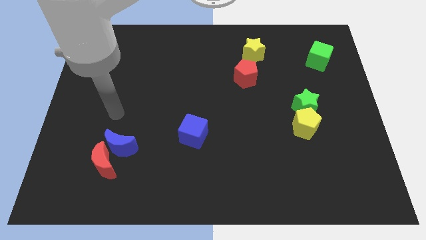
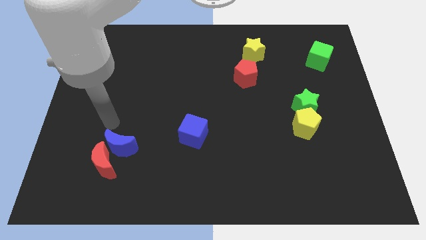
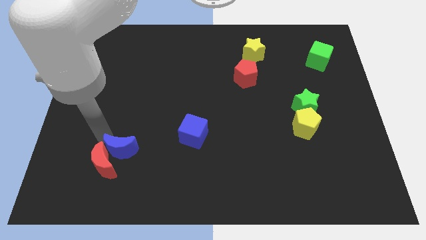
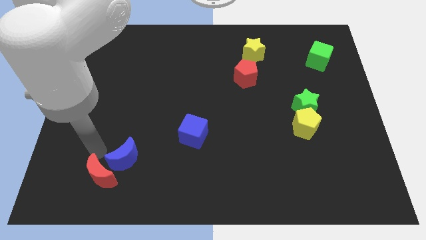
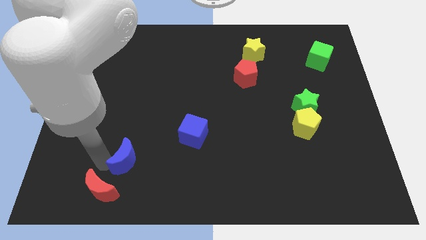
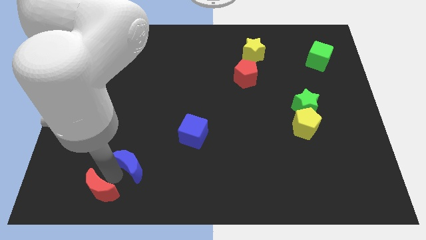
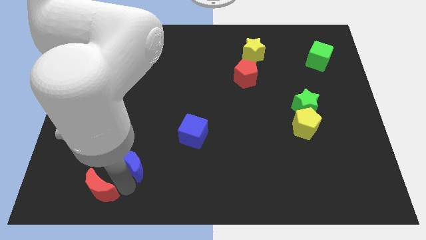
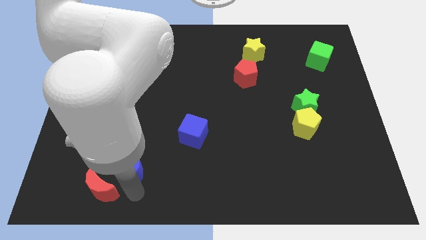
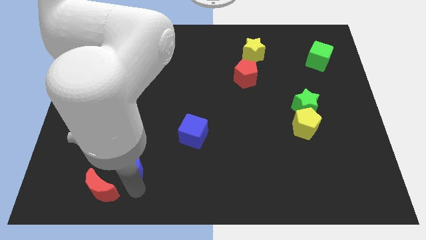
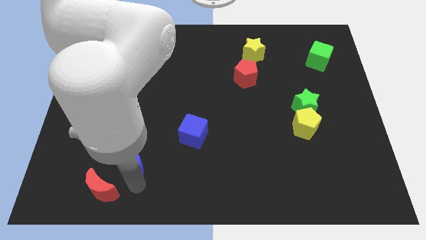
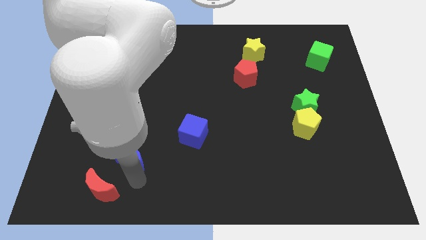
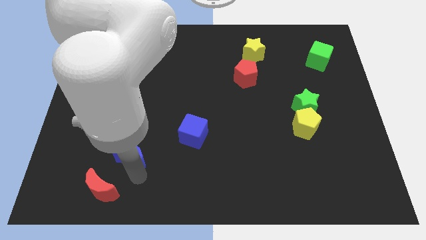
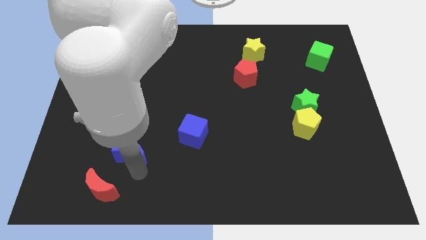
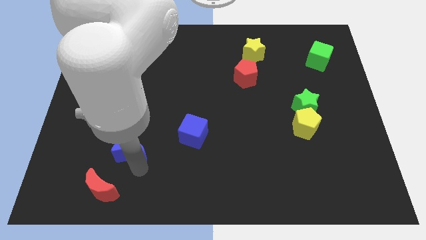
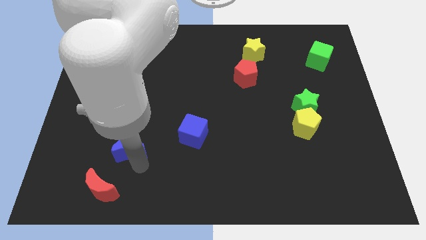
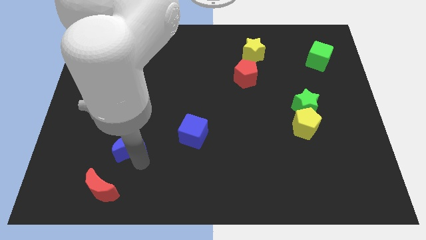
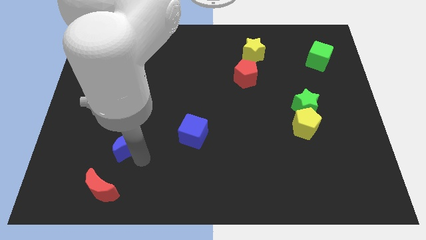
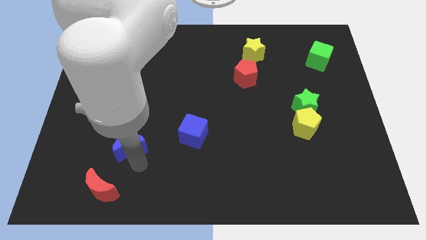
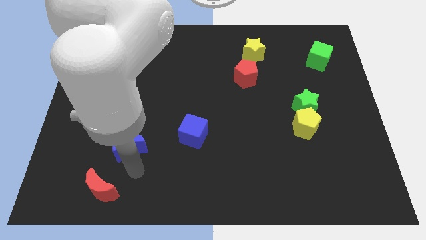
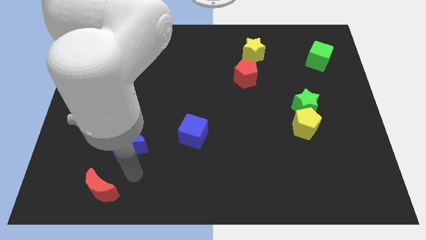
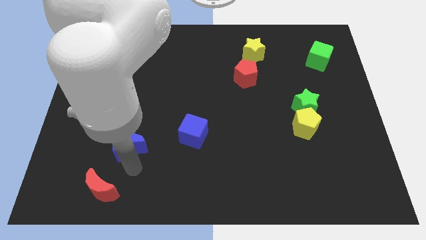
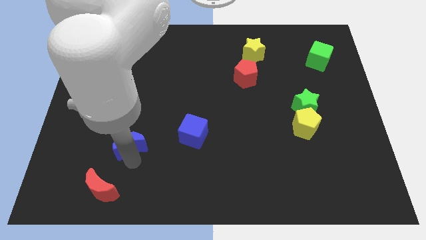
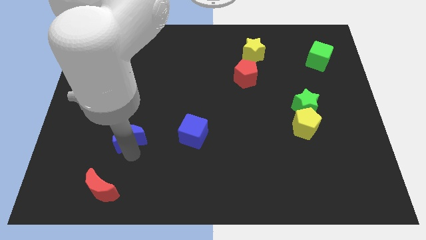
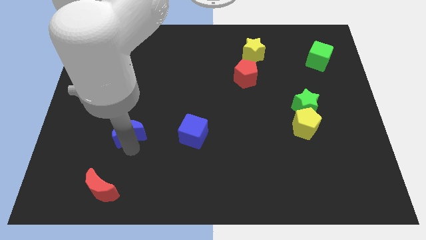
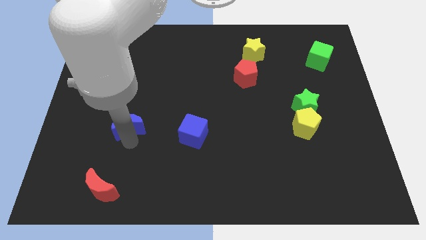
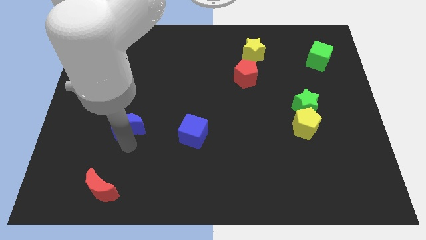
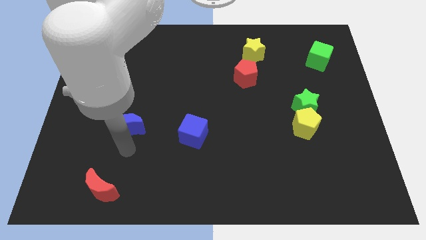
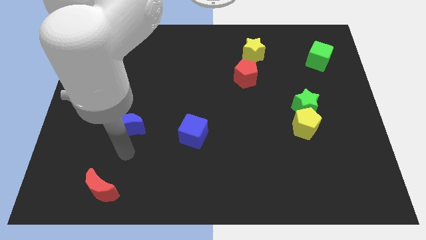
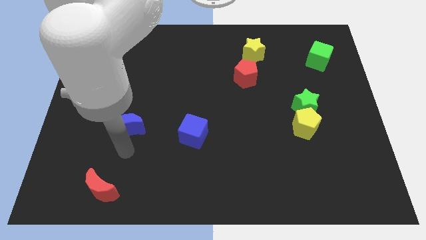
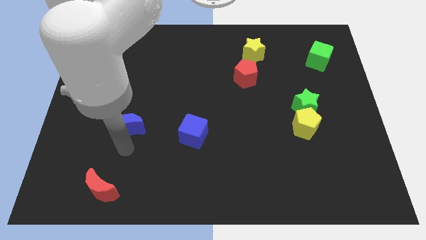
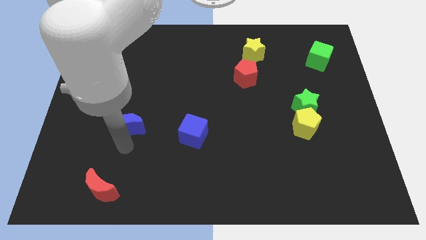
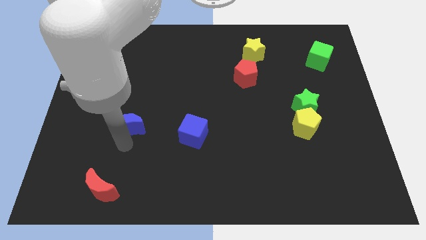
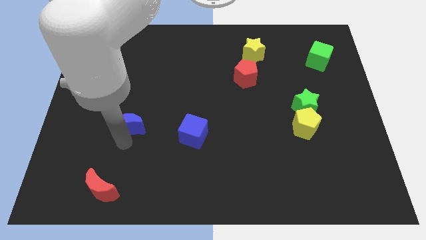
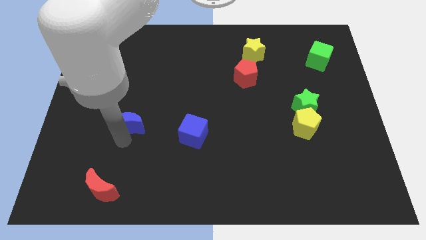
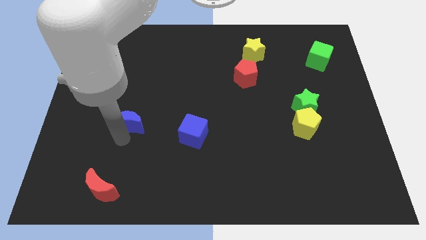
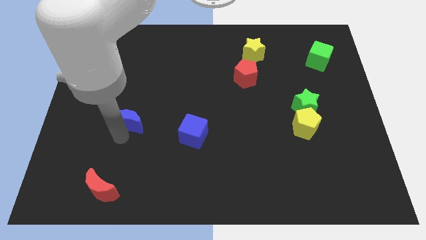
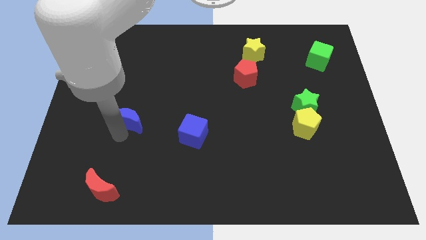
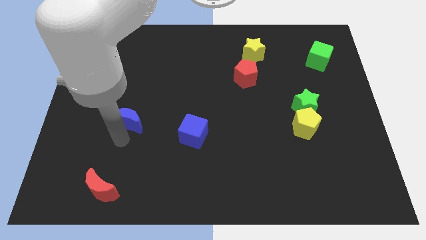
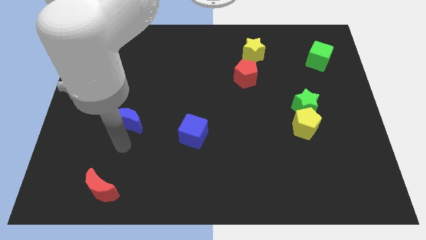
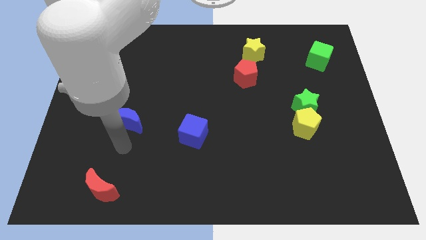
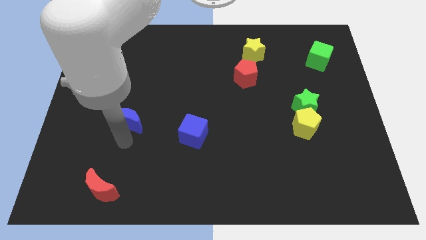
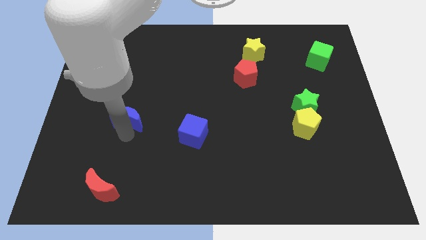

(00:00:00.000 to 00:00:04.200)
move the blue moon upwards a little

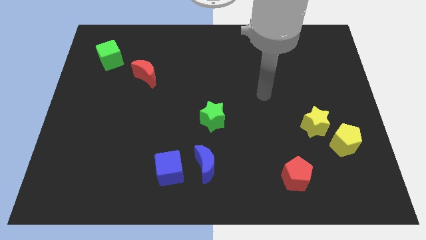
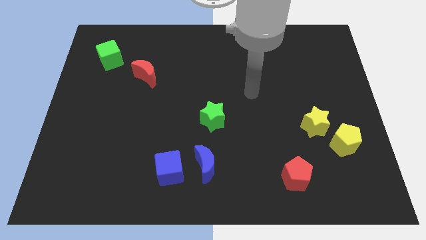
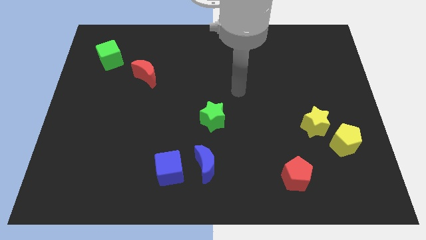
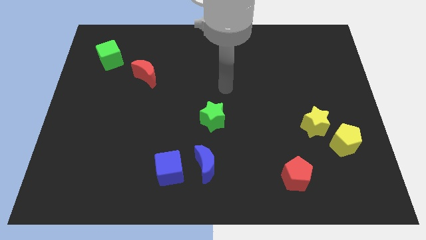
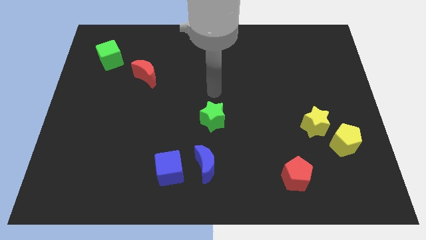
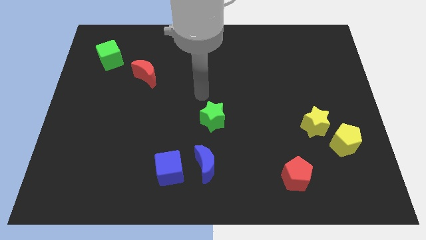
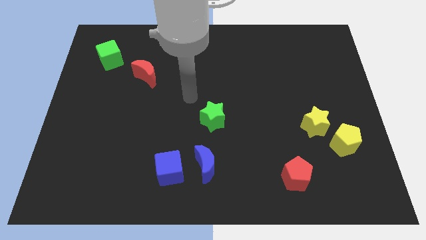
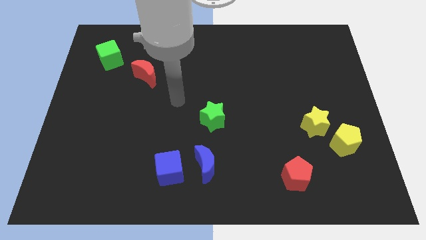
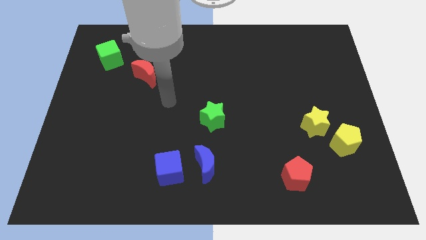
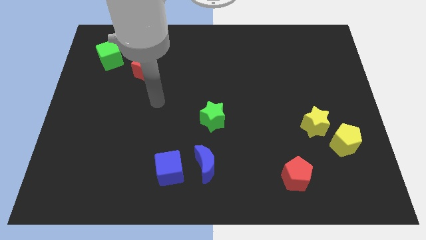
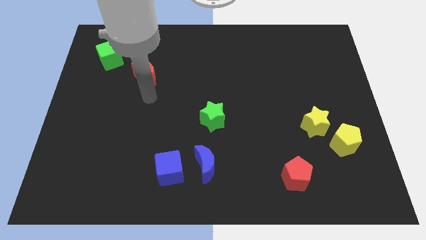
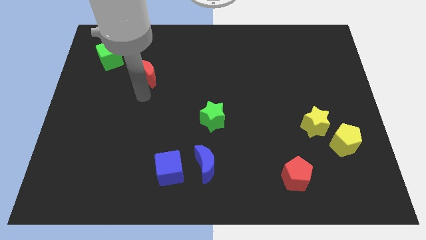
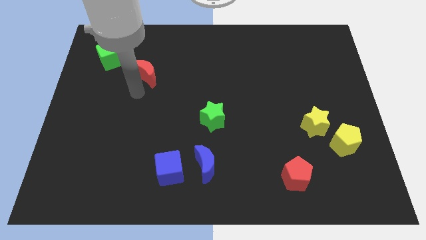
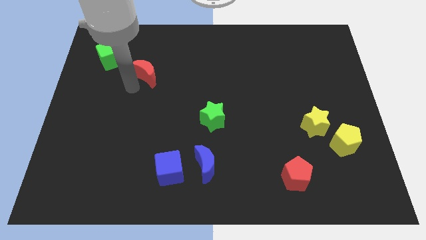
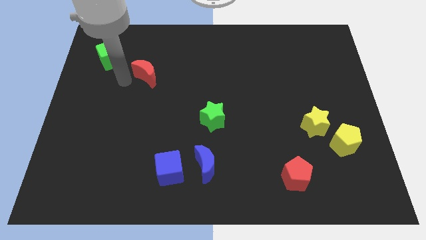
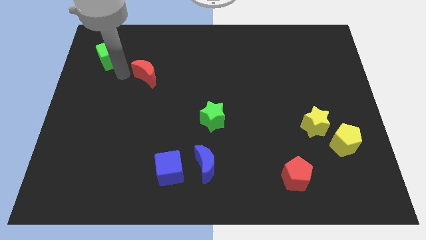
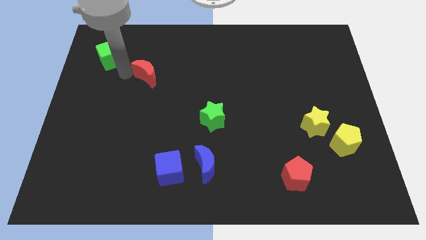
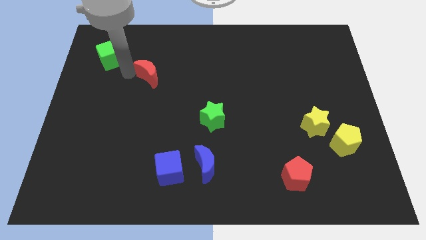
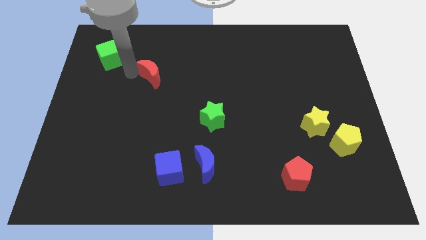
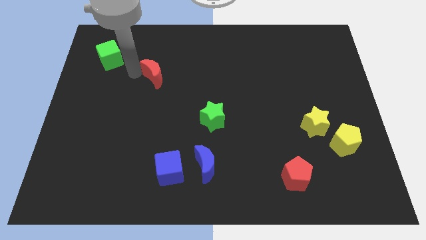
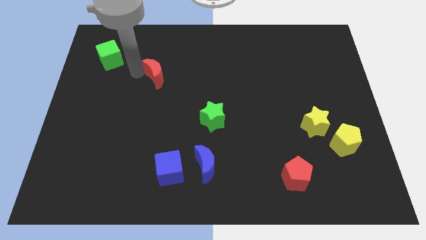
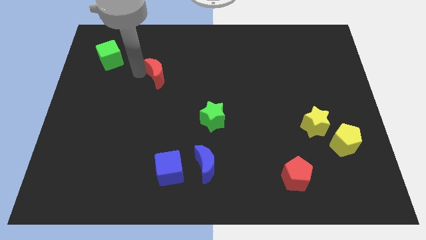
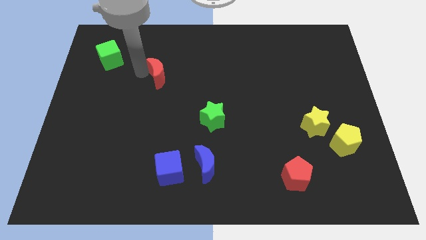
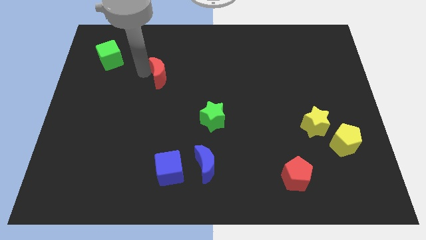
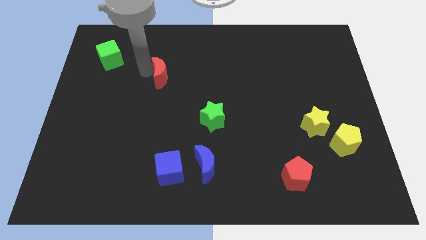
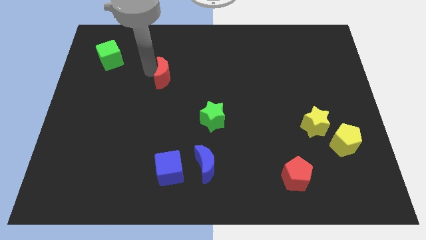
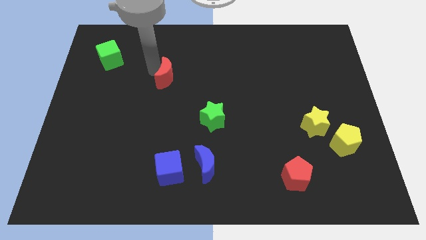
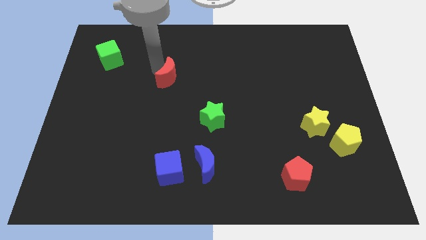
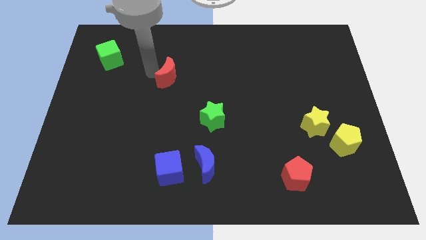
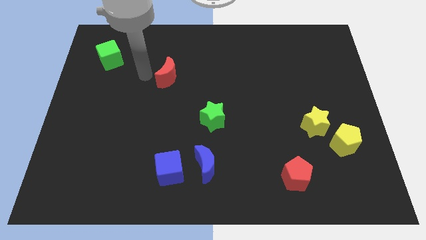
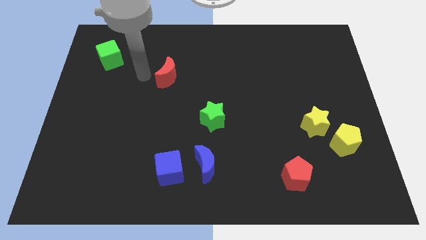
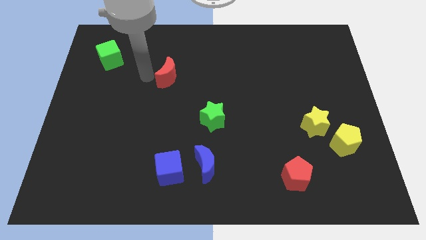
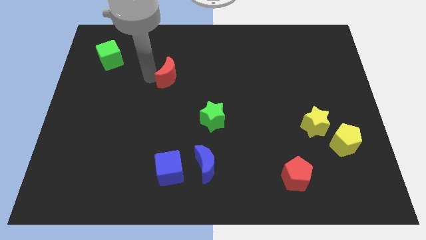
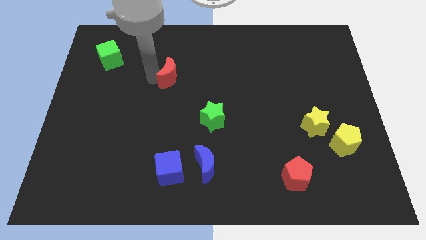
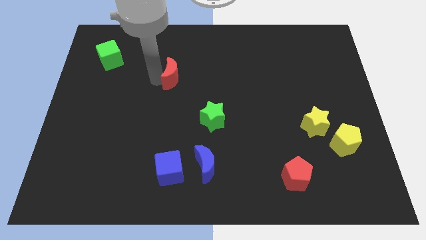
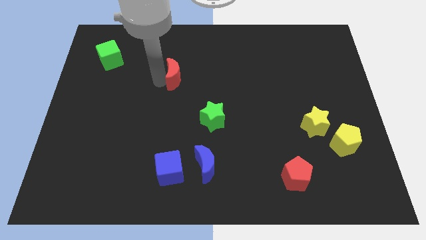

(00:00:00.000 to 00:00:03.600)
slide the red moon to the right slightly
